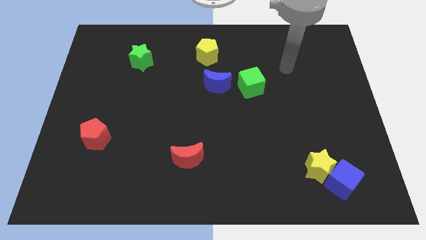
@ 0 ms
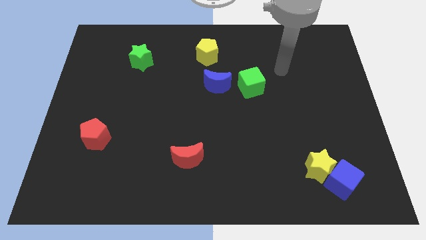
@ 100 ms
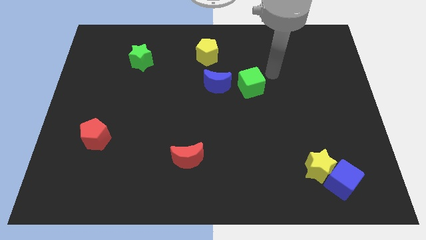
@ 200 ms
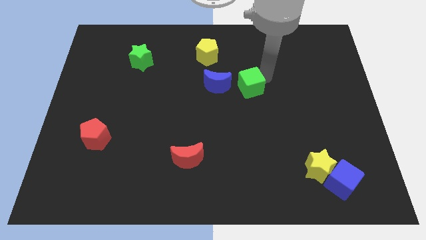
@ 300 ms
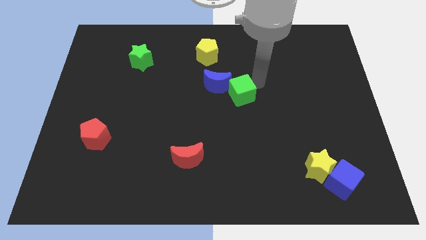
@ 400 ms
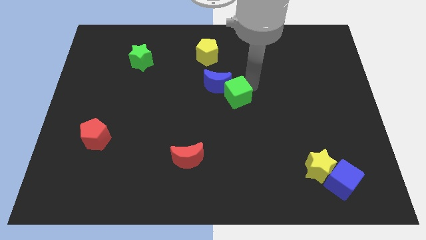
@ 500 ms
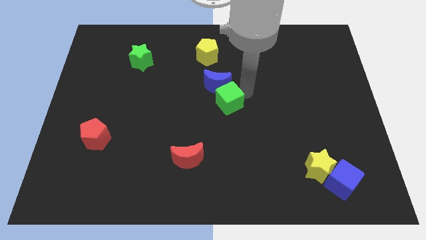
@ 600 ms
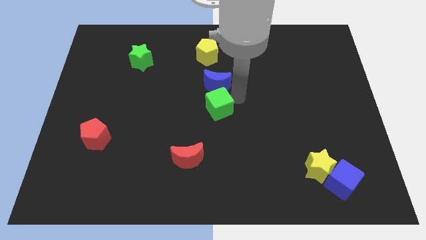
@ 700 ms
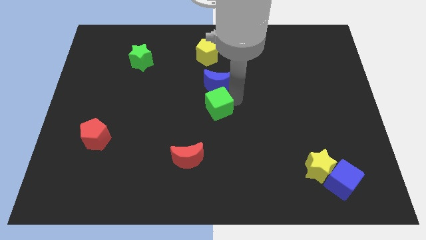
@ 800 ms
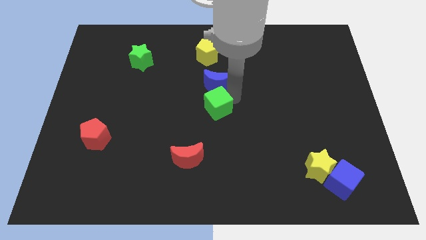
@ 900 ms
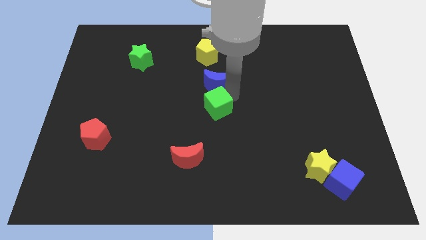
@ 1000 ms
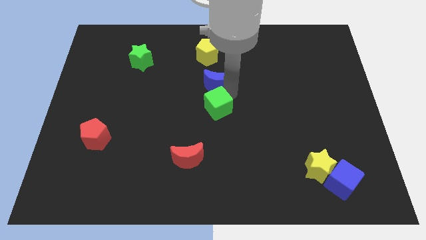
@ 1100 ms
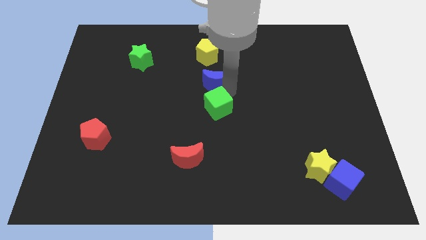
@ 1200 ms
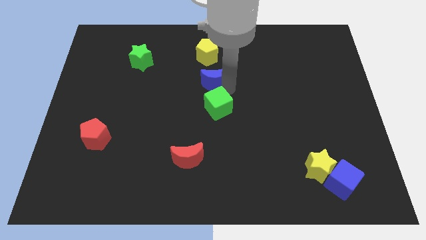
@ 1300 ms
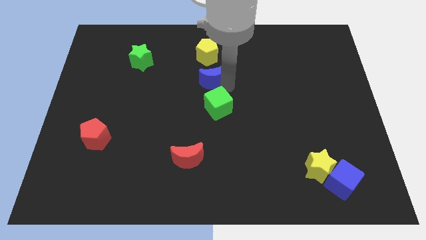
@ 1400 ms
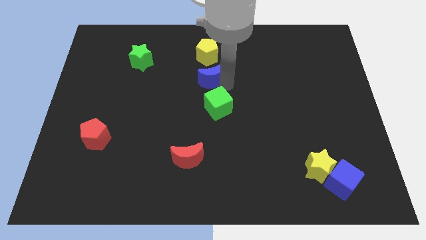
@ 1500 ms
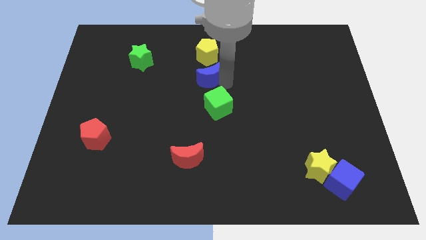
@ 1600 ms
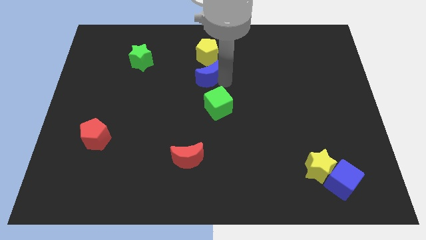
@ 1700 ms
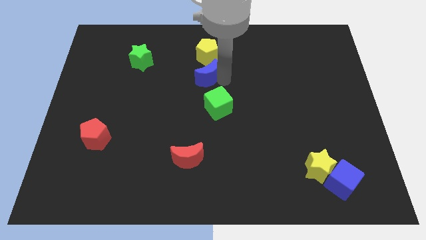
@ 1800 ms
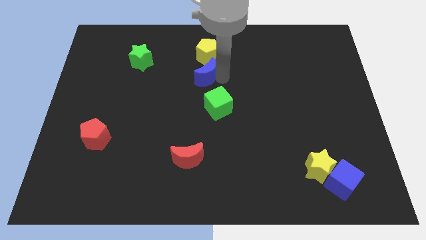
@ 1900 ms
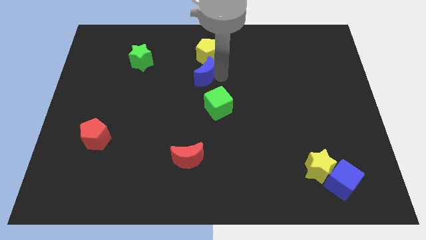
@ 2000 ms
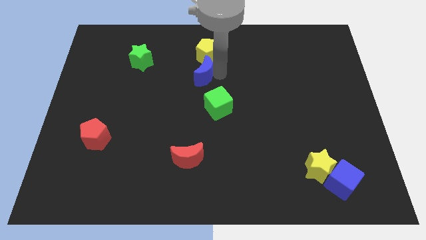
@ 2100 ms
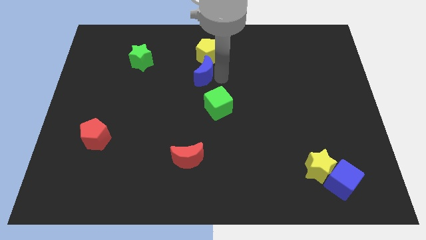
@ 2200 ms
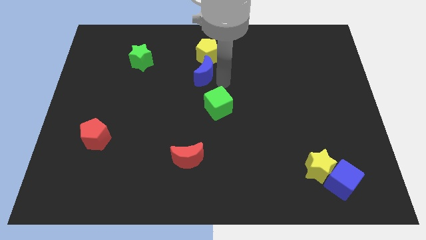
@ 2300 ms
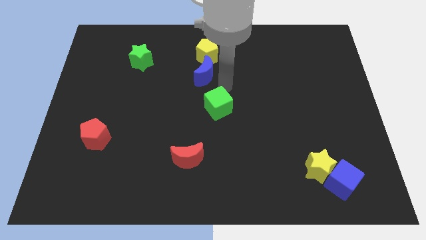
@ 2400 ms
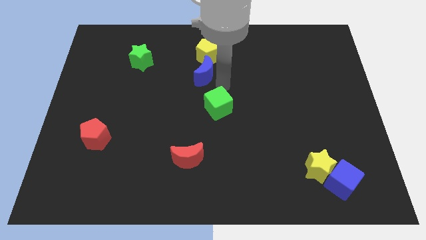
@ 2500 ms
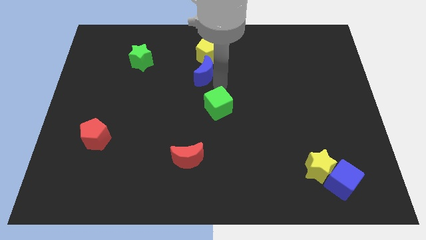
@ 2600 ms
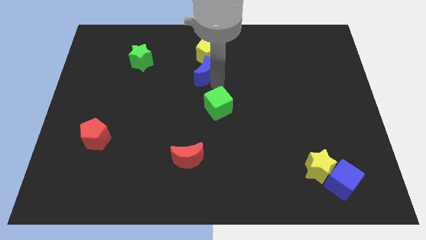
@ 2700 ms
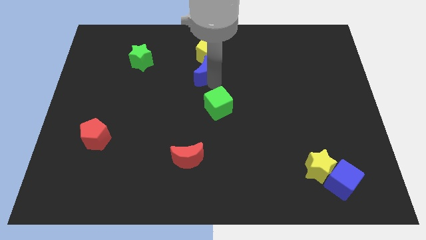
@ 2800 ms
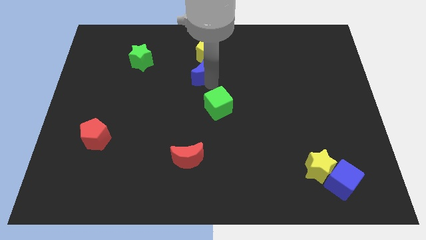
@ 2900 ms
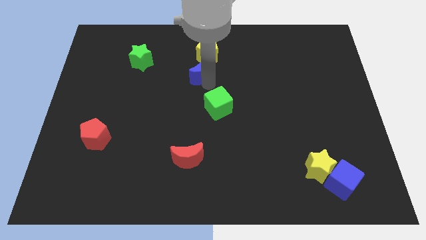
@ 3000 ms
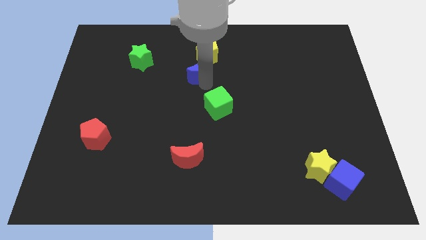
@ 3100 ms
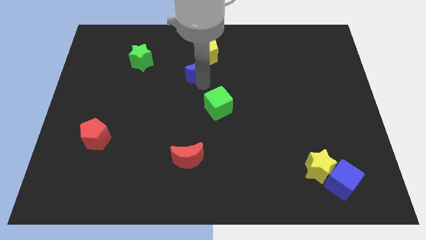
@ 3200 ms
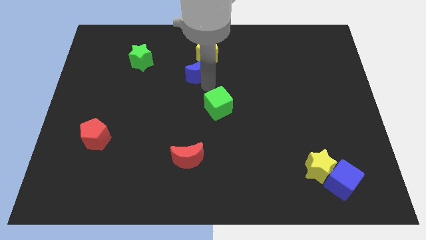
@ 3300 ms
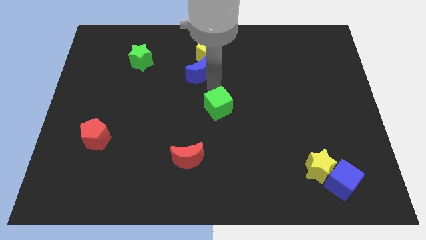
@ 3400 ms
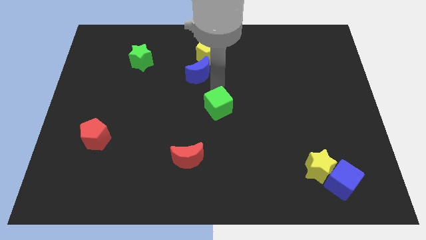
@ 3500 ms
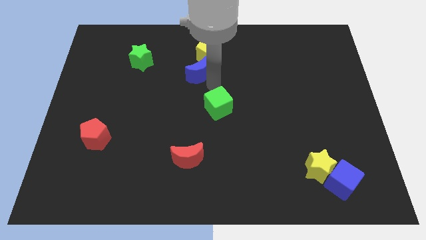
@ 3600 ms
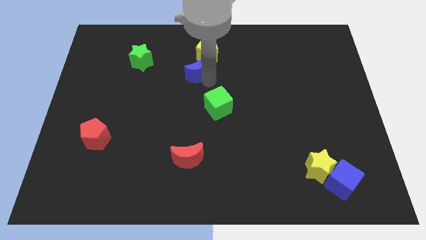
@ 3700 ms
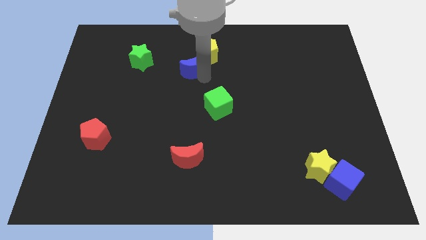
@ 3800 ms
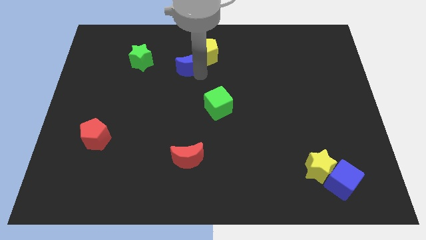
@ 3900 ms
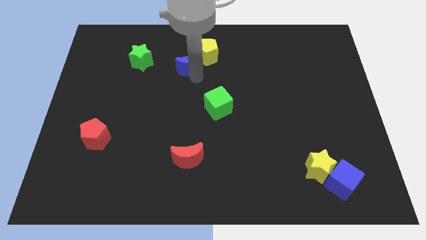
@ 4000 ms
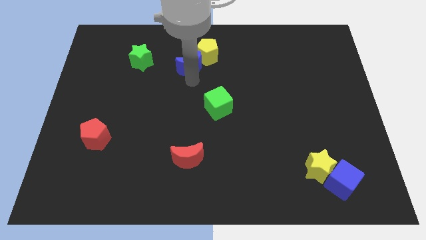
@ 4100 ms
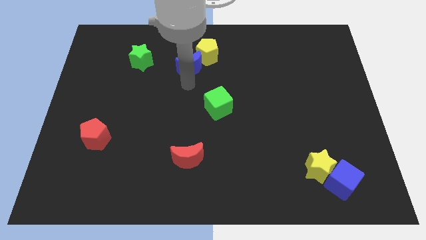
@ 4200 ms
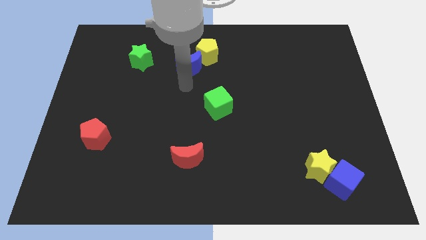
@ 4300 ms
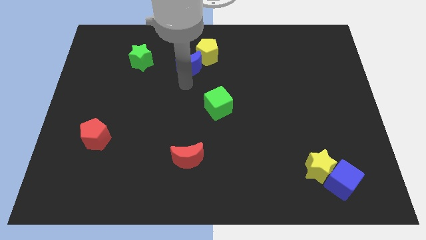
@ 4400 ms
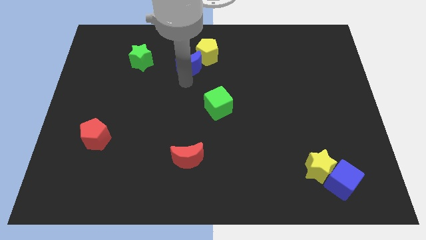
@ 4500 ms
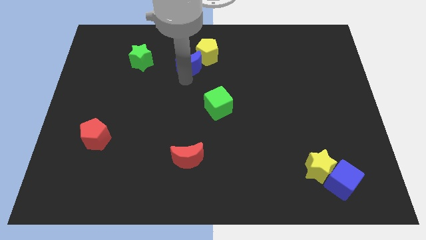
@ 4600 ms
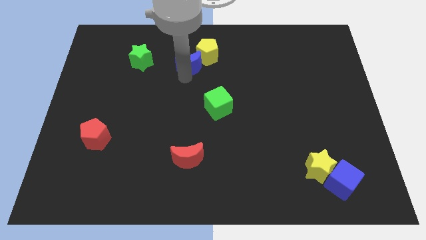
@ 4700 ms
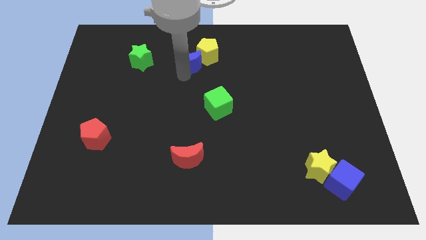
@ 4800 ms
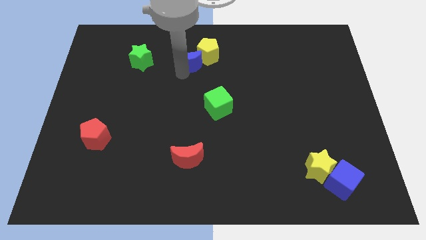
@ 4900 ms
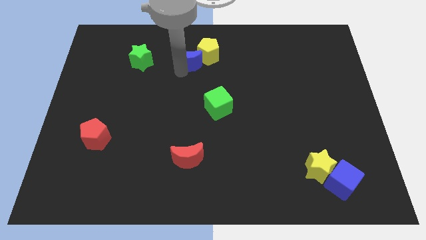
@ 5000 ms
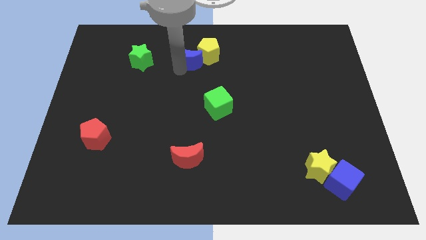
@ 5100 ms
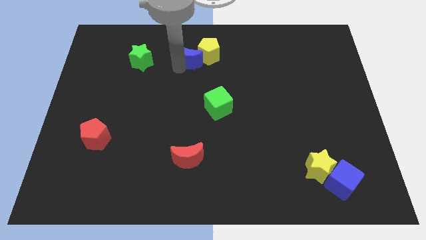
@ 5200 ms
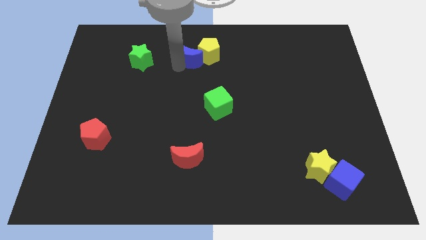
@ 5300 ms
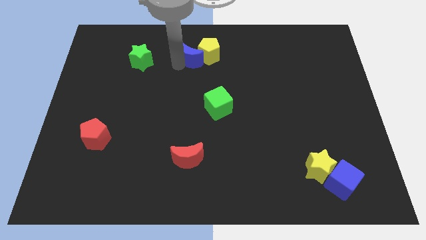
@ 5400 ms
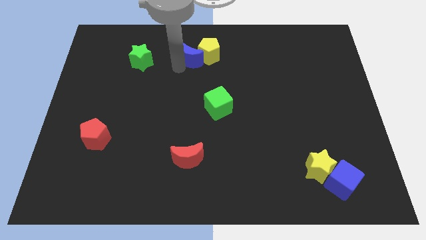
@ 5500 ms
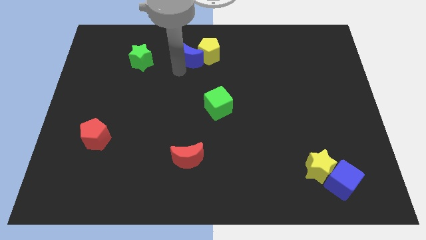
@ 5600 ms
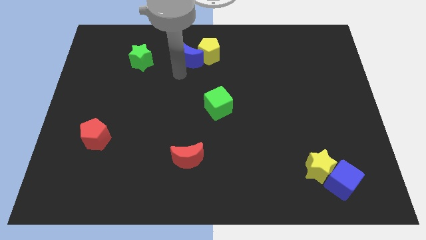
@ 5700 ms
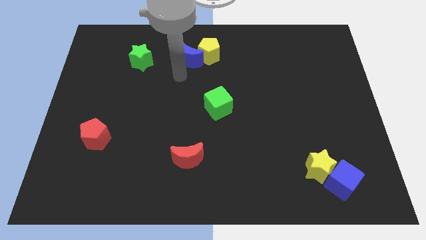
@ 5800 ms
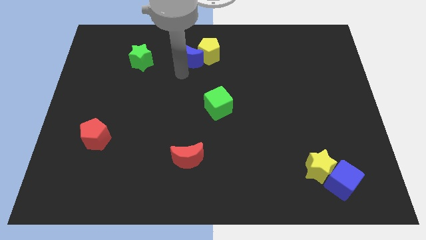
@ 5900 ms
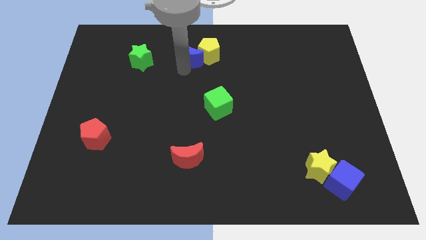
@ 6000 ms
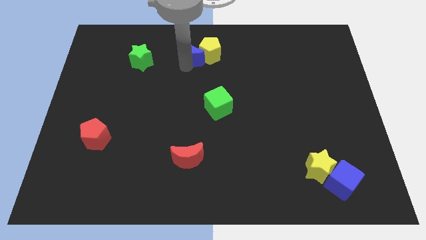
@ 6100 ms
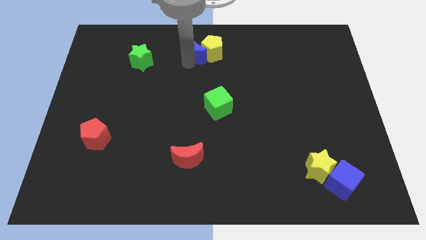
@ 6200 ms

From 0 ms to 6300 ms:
move the blue moon to the top side
